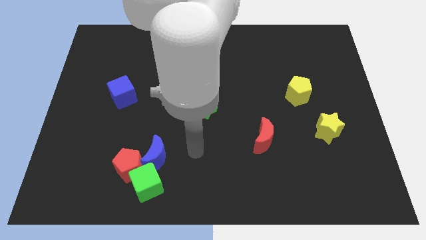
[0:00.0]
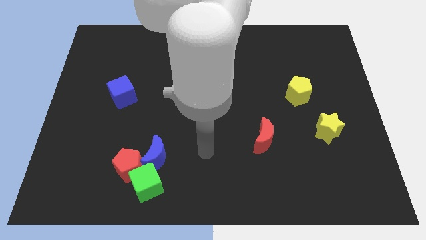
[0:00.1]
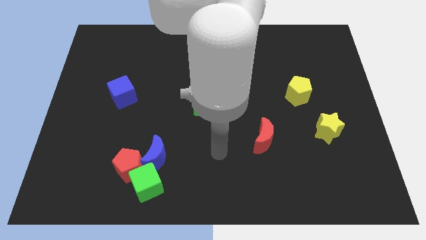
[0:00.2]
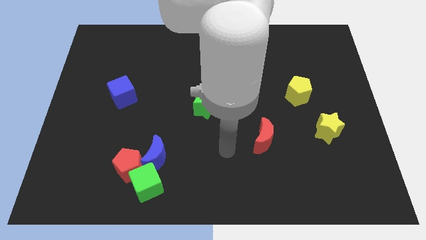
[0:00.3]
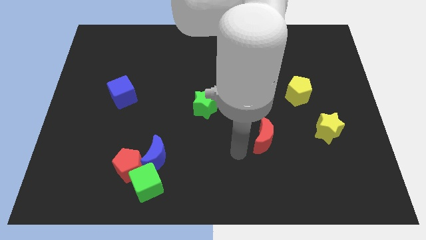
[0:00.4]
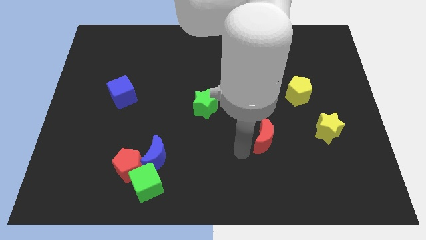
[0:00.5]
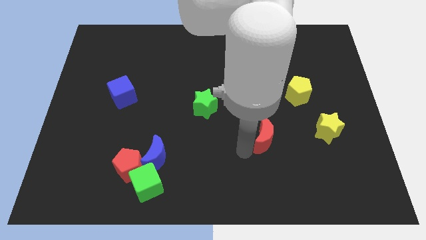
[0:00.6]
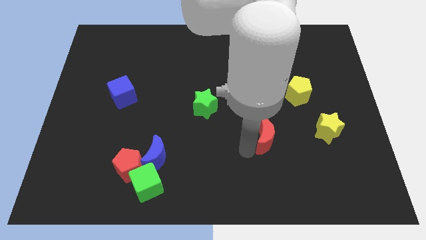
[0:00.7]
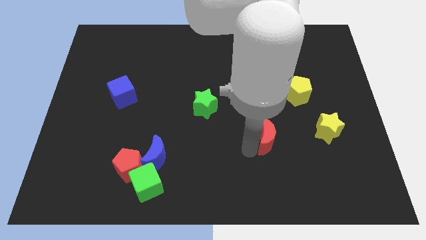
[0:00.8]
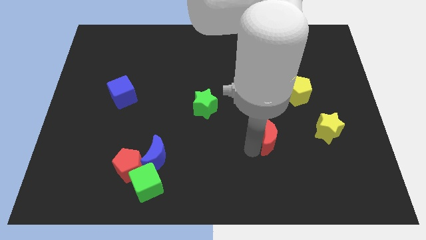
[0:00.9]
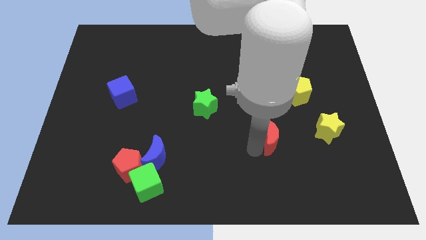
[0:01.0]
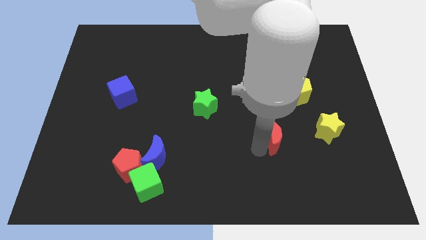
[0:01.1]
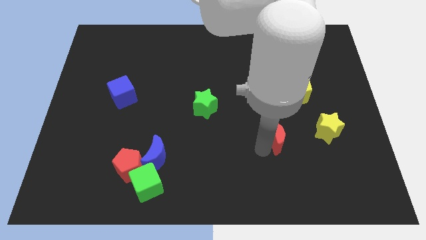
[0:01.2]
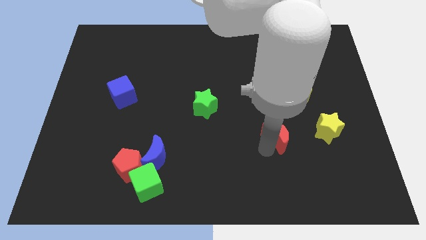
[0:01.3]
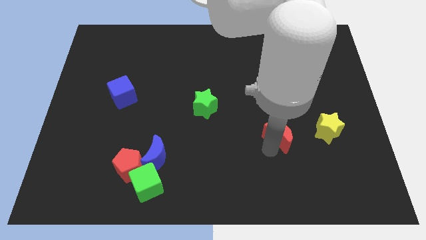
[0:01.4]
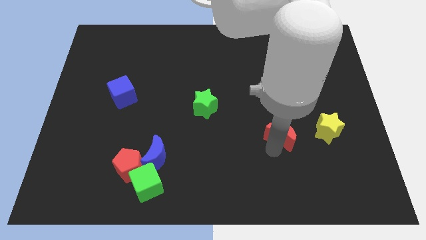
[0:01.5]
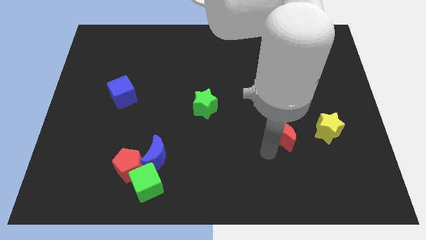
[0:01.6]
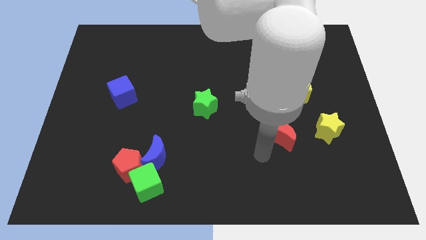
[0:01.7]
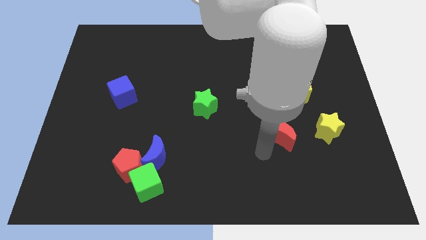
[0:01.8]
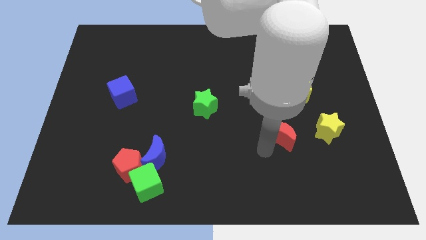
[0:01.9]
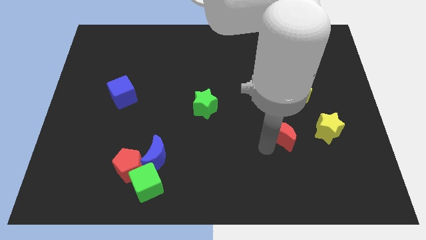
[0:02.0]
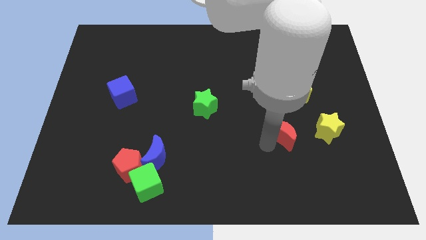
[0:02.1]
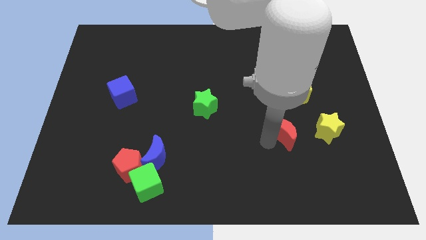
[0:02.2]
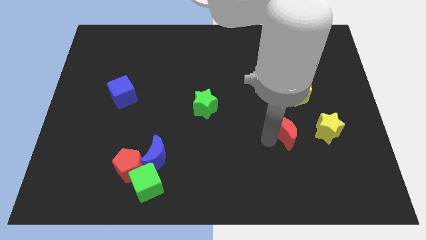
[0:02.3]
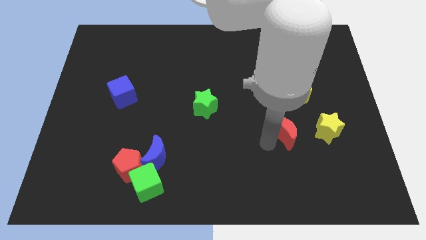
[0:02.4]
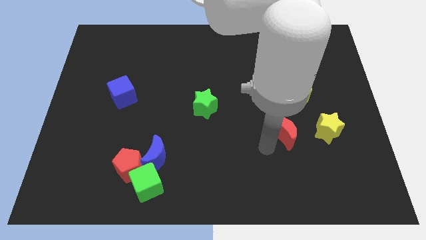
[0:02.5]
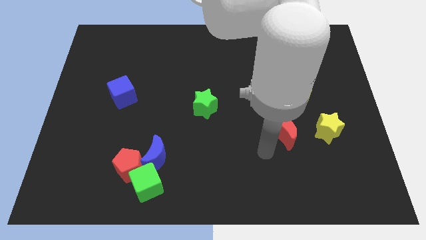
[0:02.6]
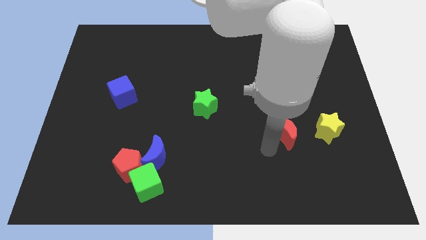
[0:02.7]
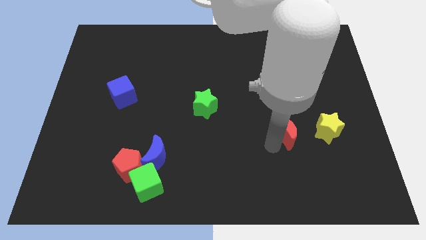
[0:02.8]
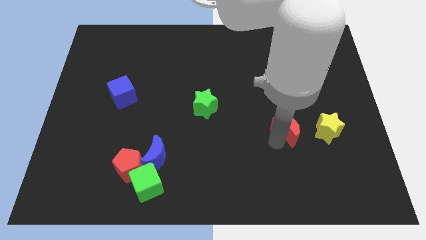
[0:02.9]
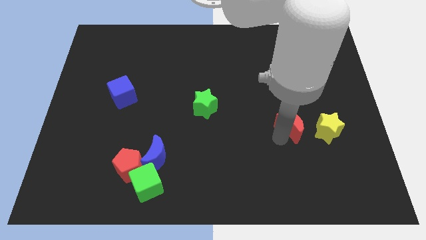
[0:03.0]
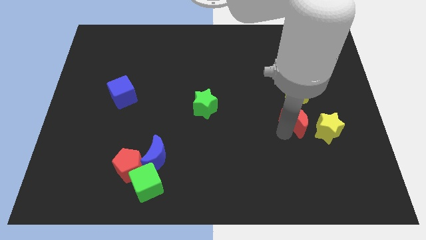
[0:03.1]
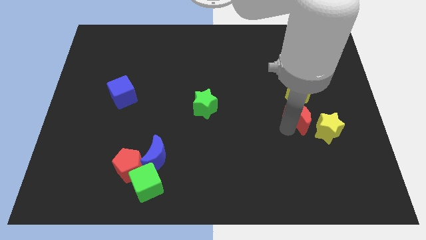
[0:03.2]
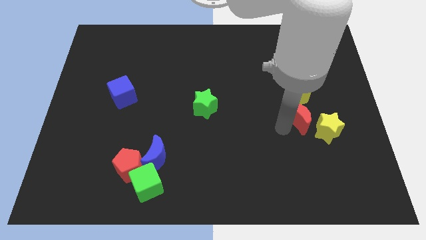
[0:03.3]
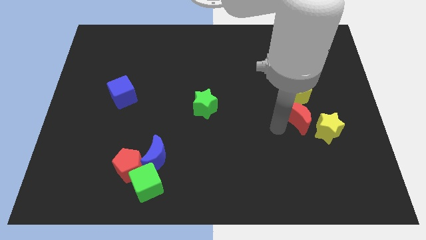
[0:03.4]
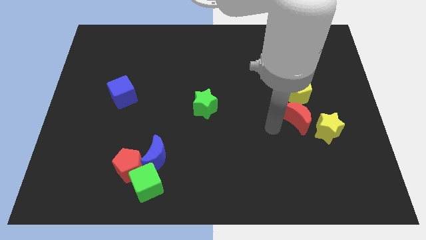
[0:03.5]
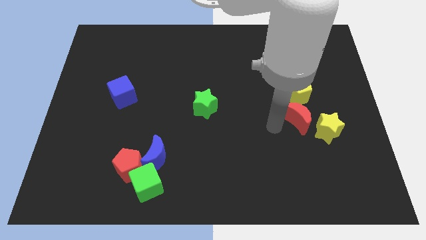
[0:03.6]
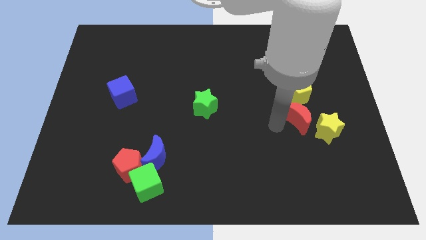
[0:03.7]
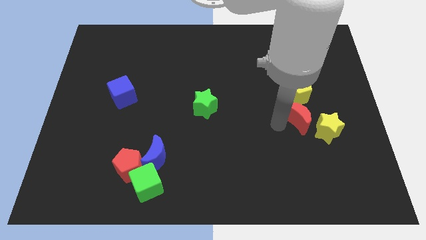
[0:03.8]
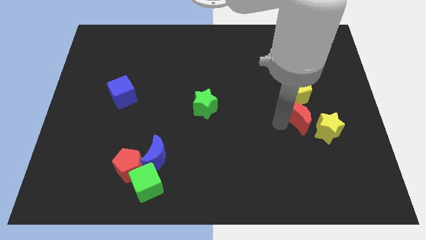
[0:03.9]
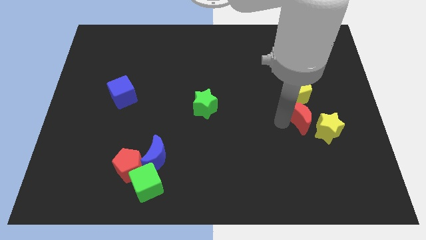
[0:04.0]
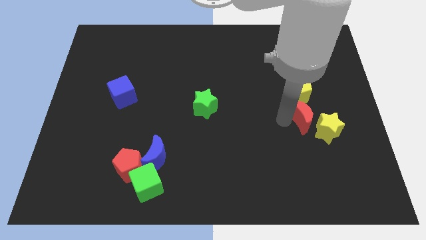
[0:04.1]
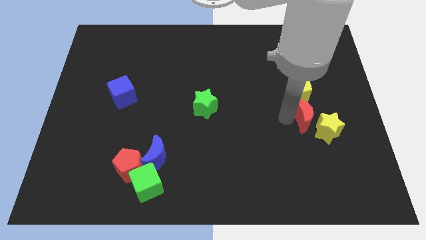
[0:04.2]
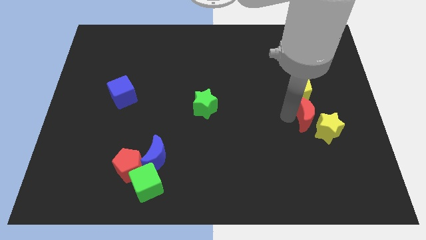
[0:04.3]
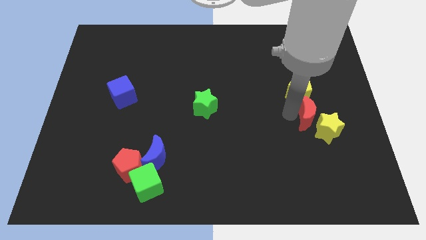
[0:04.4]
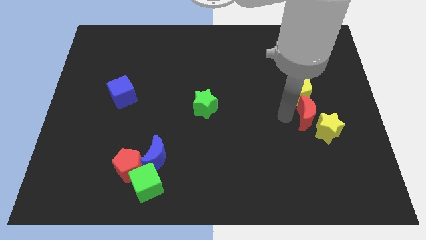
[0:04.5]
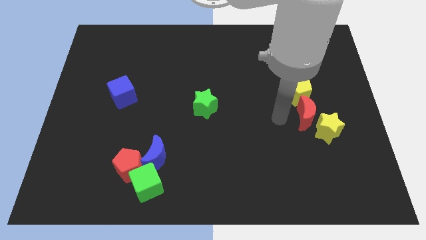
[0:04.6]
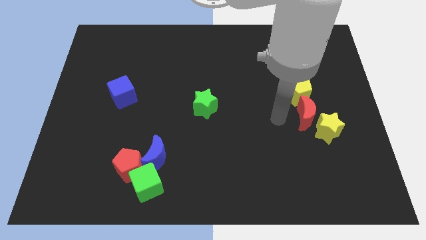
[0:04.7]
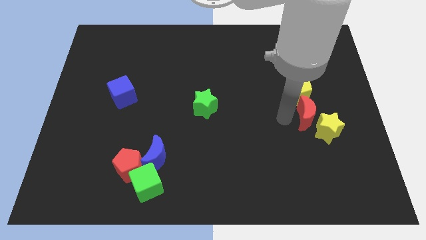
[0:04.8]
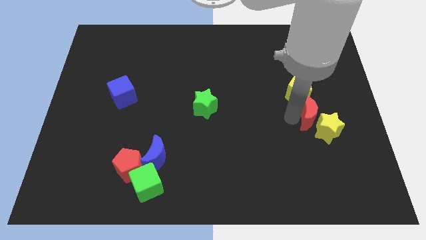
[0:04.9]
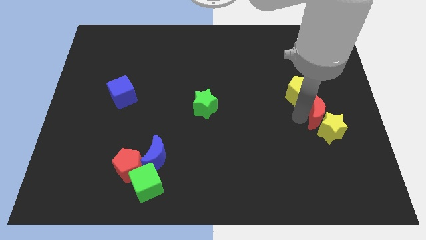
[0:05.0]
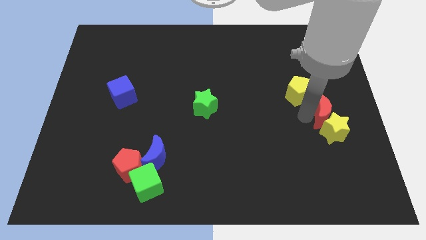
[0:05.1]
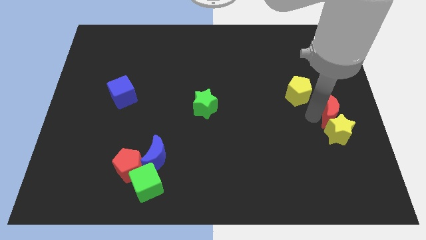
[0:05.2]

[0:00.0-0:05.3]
slide the red moon to the right side of the board

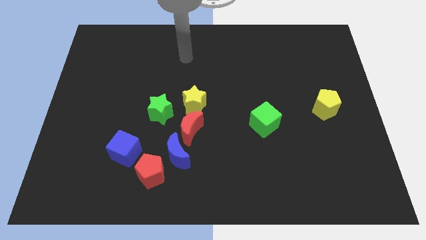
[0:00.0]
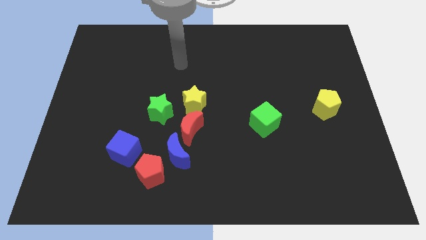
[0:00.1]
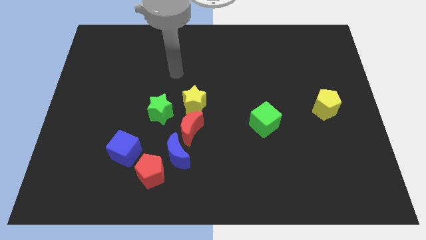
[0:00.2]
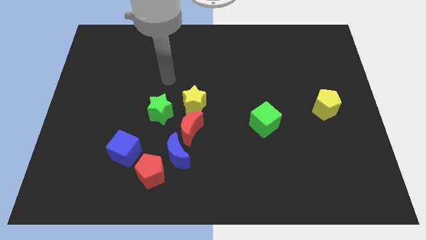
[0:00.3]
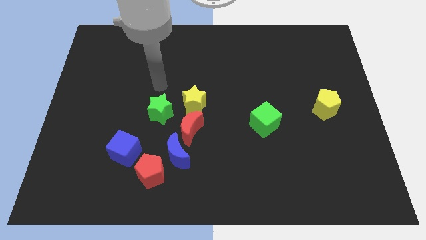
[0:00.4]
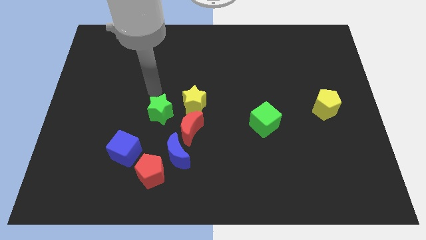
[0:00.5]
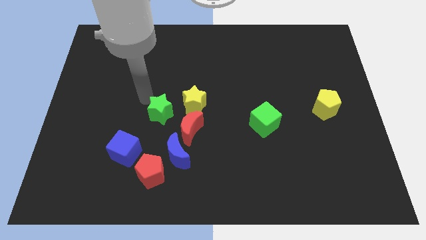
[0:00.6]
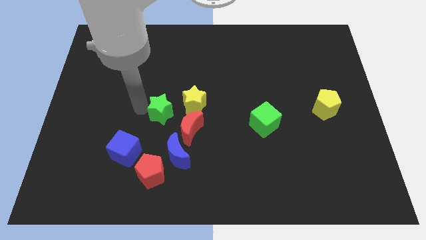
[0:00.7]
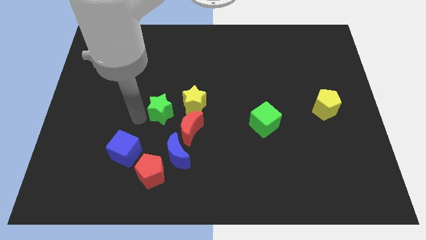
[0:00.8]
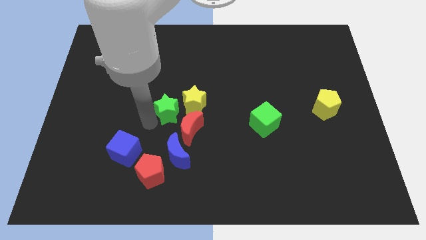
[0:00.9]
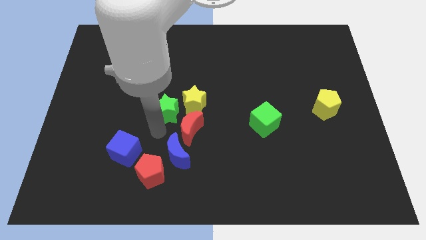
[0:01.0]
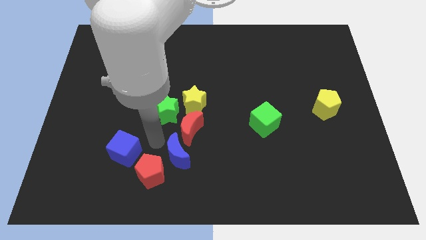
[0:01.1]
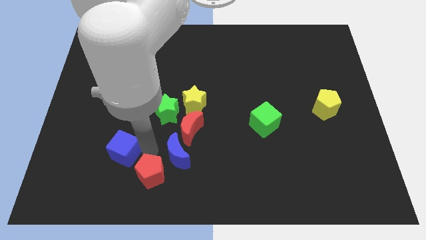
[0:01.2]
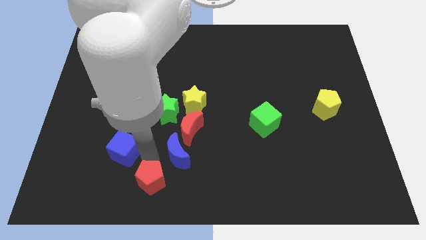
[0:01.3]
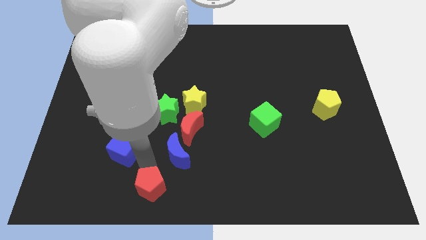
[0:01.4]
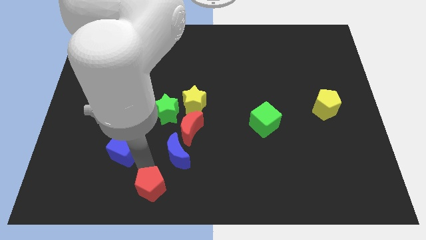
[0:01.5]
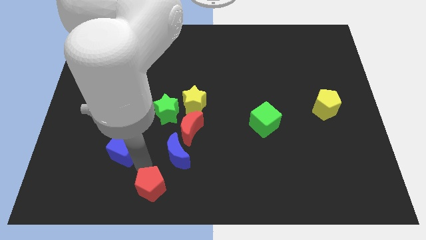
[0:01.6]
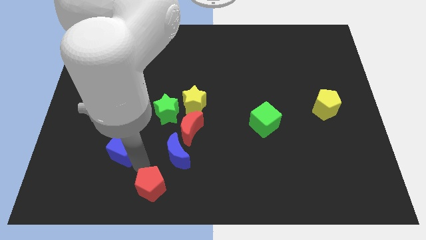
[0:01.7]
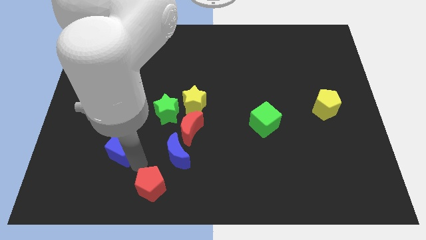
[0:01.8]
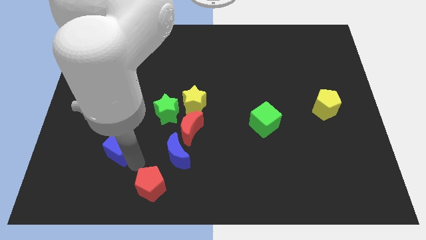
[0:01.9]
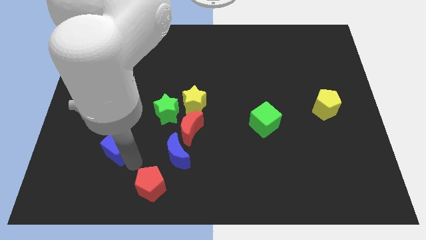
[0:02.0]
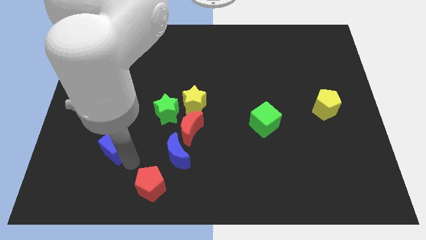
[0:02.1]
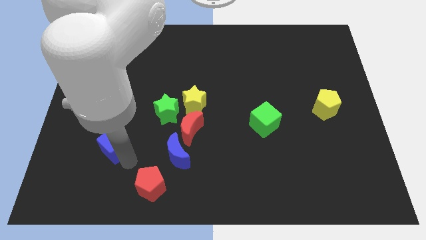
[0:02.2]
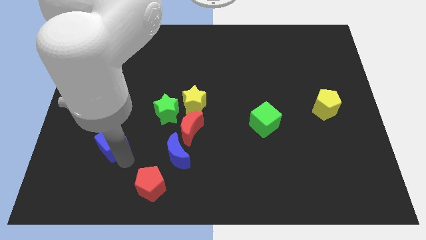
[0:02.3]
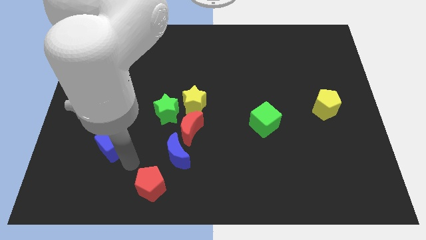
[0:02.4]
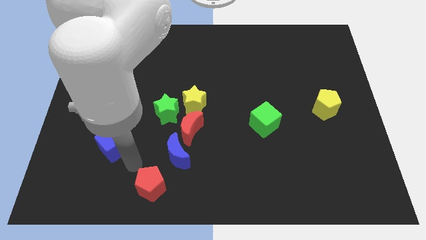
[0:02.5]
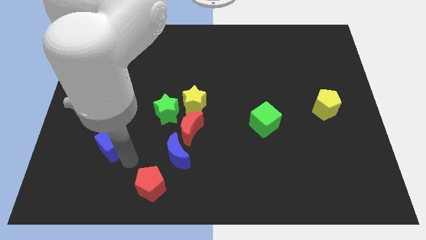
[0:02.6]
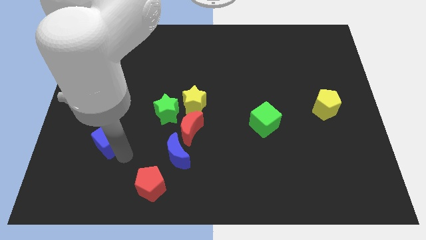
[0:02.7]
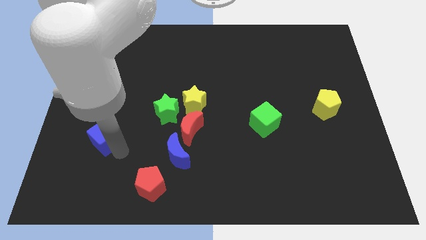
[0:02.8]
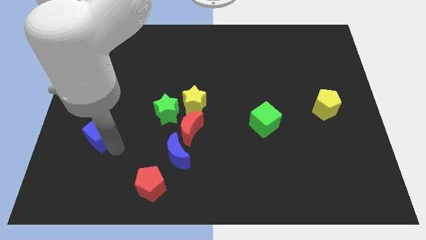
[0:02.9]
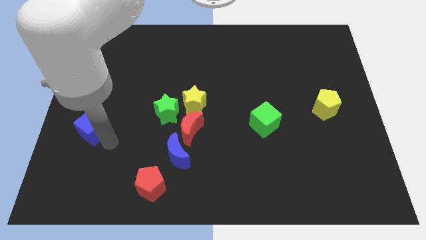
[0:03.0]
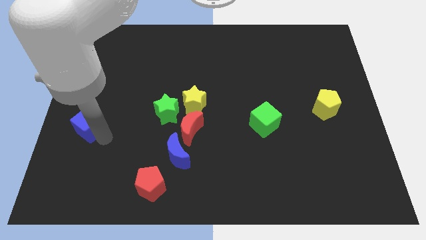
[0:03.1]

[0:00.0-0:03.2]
put the blue cube to the left side
